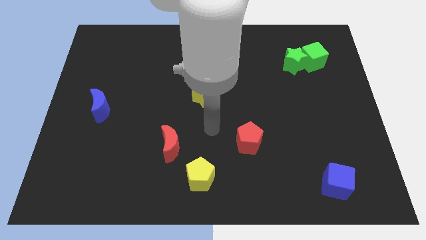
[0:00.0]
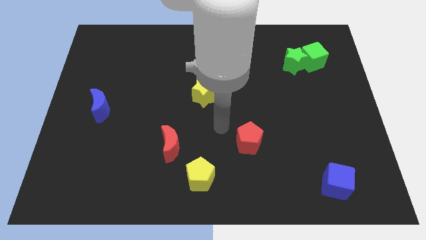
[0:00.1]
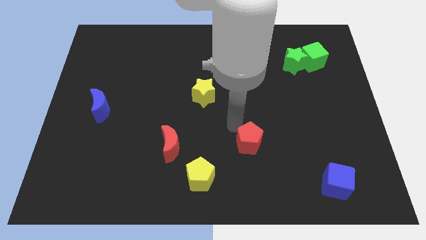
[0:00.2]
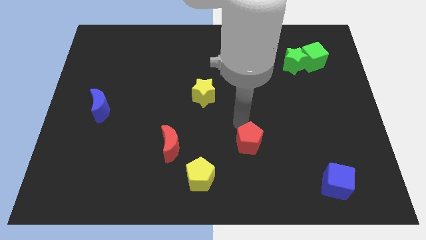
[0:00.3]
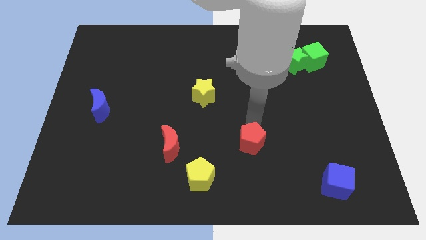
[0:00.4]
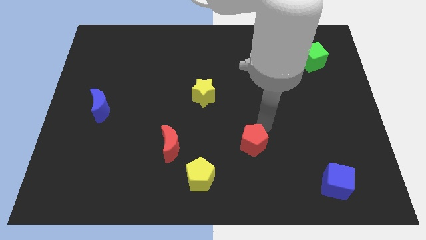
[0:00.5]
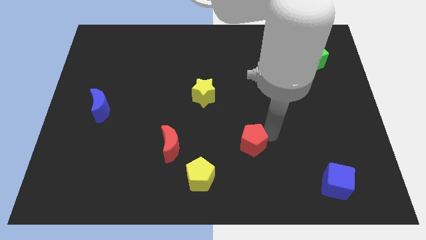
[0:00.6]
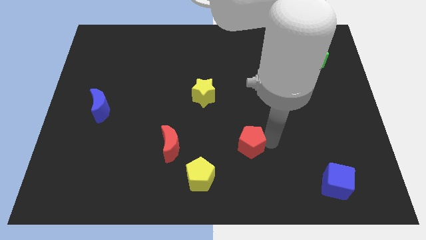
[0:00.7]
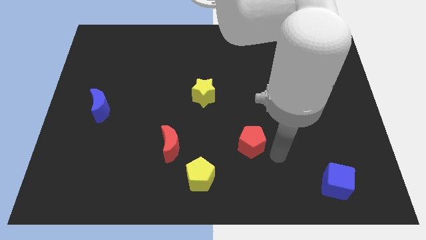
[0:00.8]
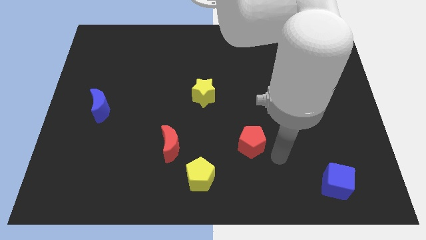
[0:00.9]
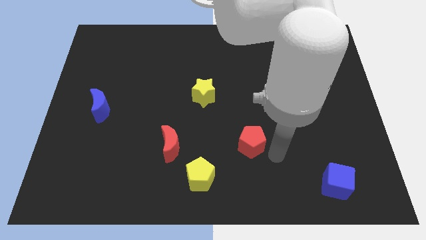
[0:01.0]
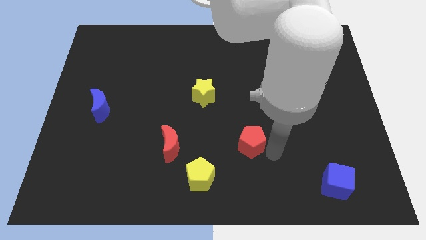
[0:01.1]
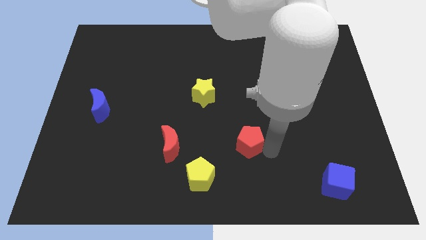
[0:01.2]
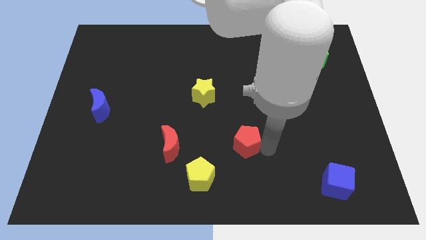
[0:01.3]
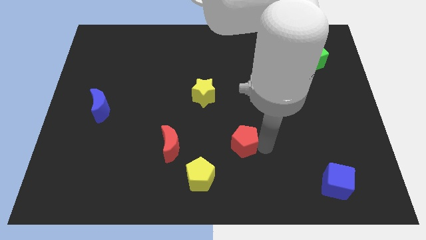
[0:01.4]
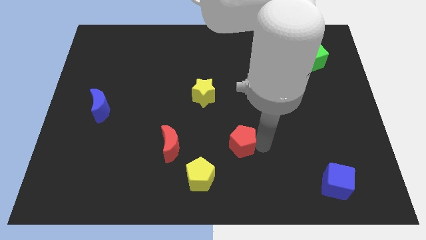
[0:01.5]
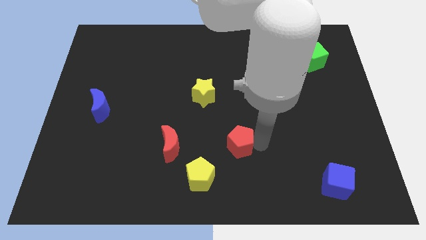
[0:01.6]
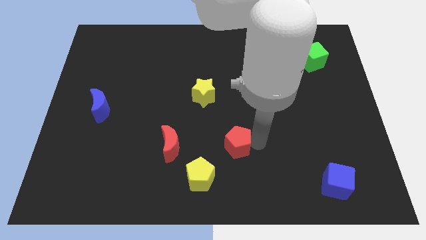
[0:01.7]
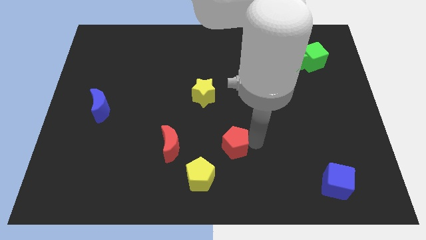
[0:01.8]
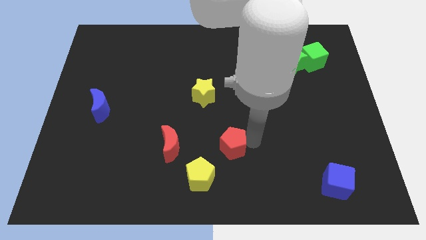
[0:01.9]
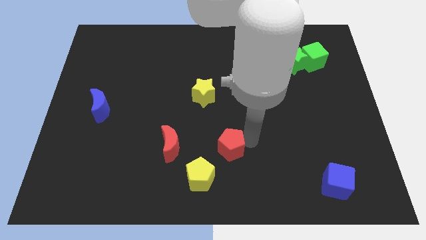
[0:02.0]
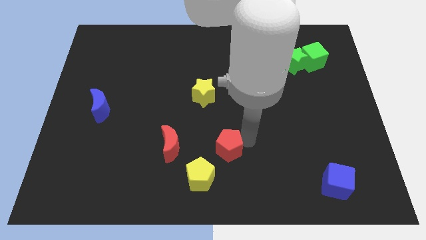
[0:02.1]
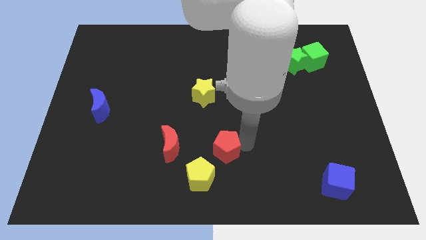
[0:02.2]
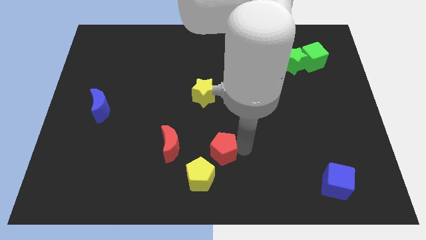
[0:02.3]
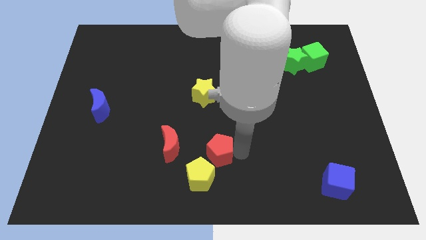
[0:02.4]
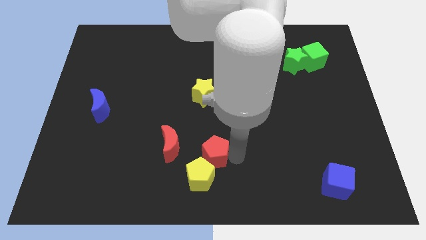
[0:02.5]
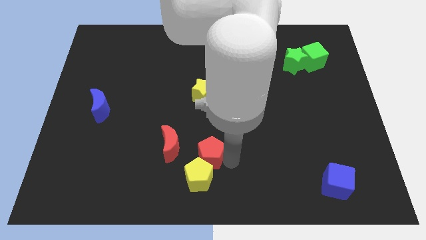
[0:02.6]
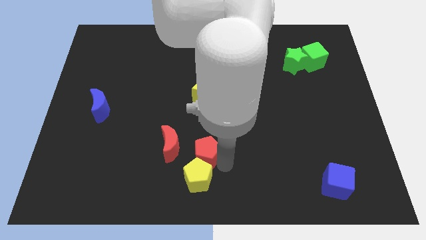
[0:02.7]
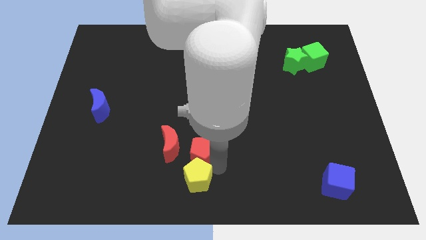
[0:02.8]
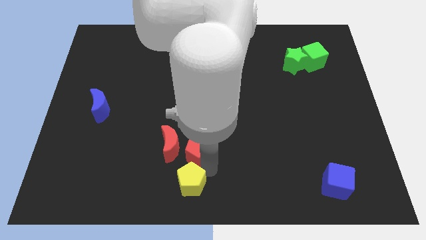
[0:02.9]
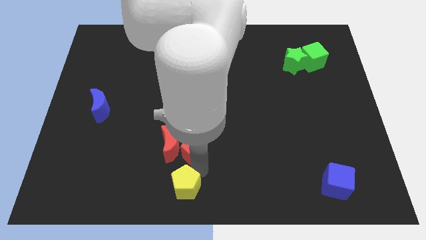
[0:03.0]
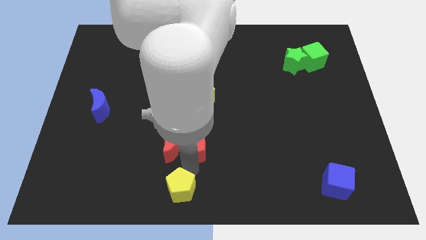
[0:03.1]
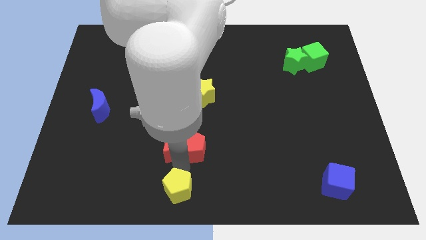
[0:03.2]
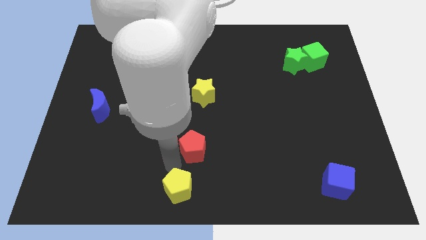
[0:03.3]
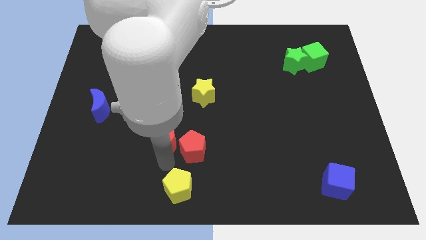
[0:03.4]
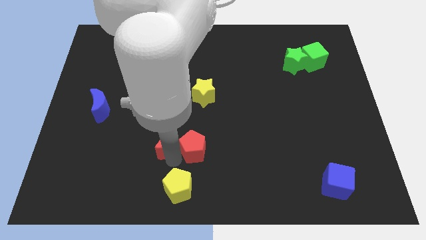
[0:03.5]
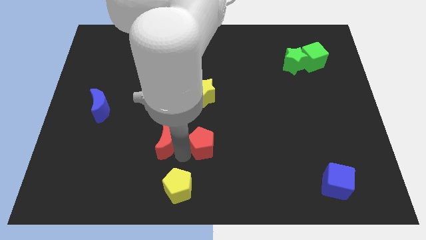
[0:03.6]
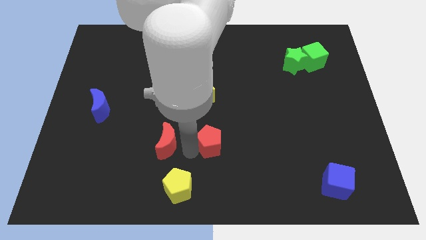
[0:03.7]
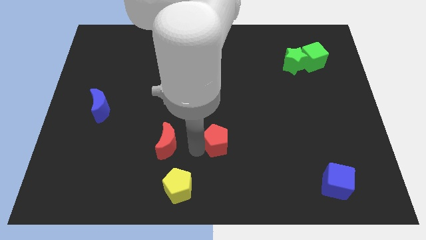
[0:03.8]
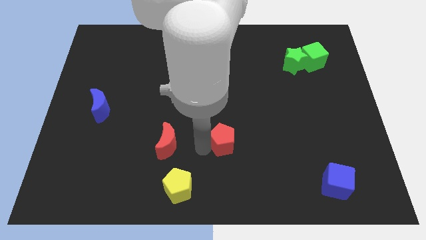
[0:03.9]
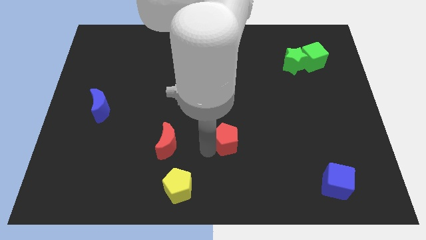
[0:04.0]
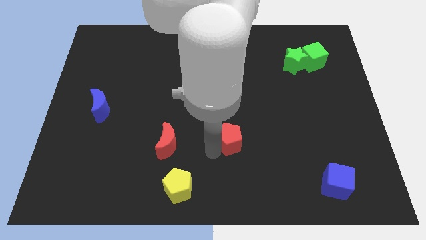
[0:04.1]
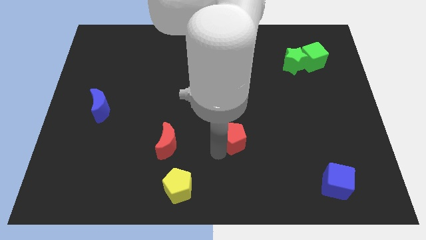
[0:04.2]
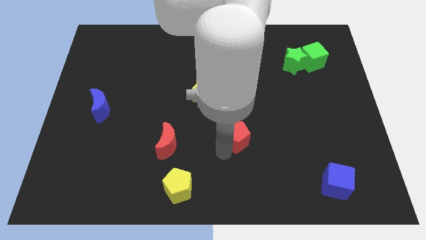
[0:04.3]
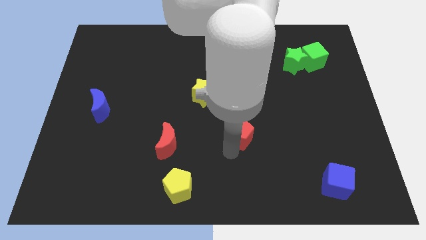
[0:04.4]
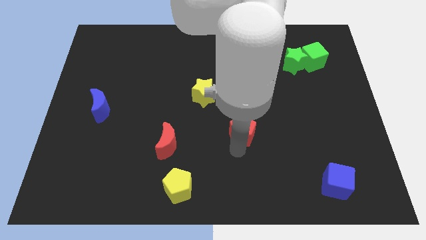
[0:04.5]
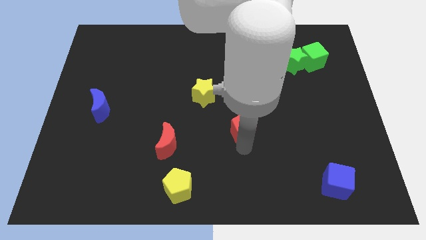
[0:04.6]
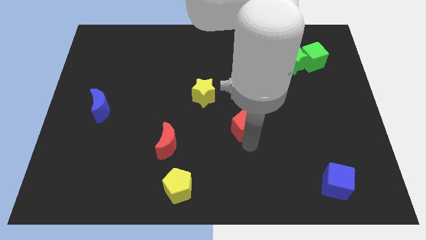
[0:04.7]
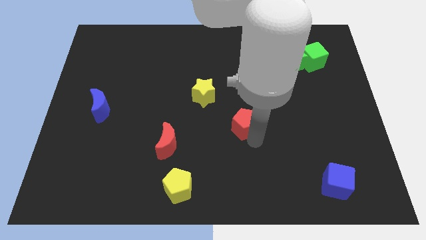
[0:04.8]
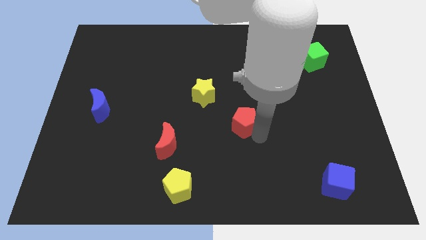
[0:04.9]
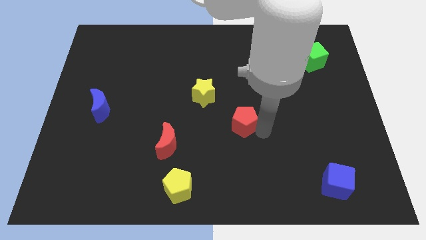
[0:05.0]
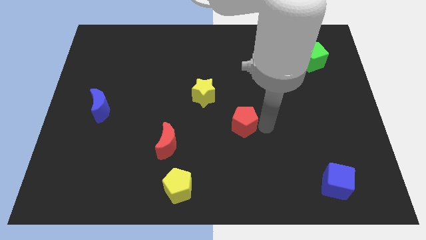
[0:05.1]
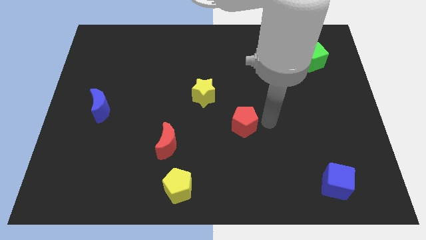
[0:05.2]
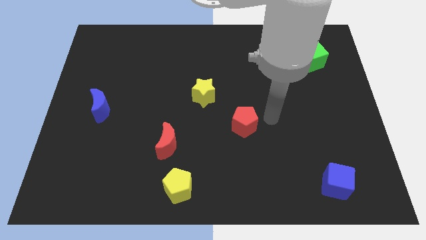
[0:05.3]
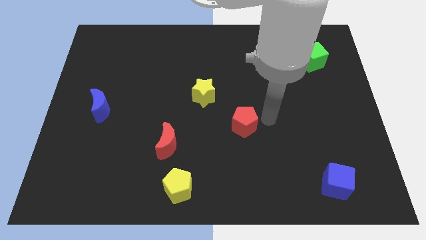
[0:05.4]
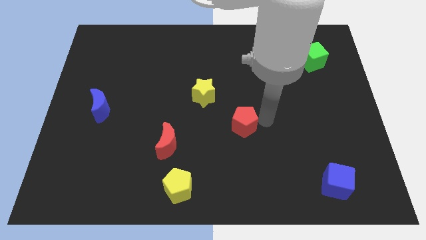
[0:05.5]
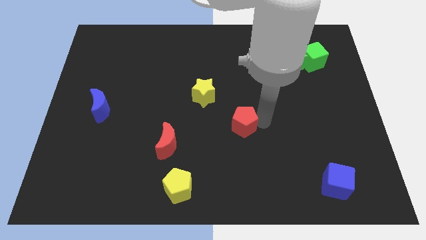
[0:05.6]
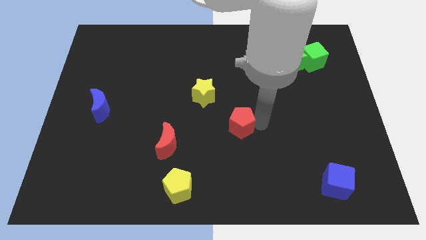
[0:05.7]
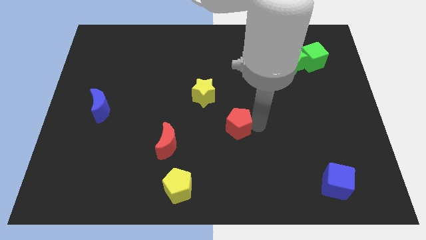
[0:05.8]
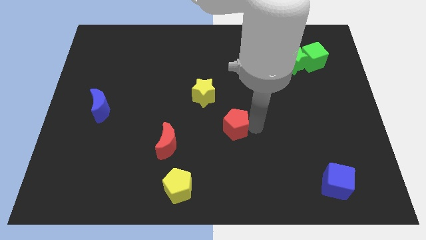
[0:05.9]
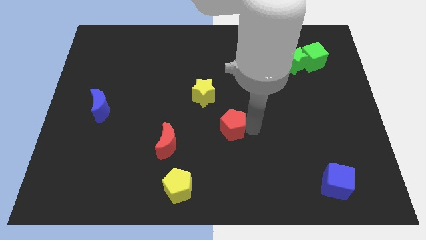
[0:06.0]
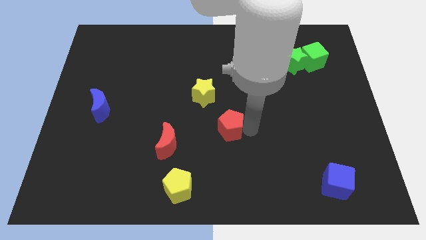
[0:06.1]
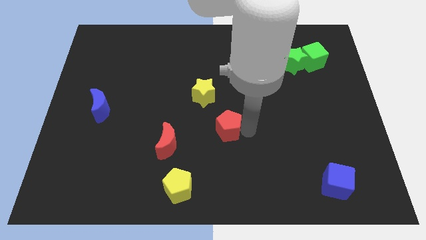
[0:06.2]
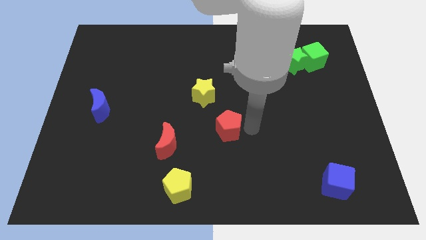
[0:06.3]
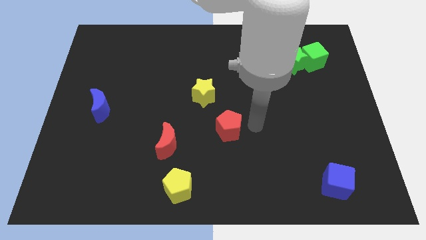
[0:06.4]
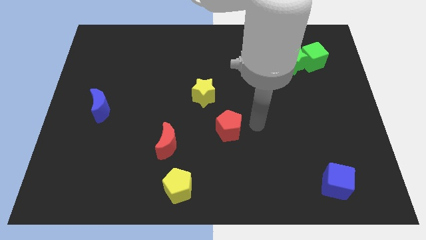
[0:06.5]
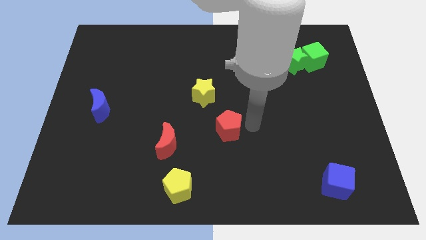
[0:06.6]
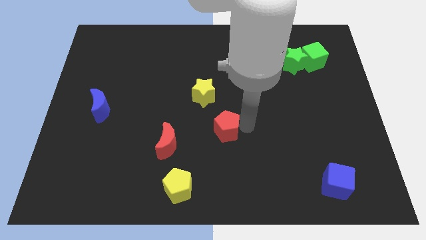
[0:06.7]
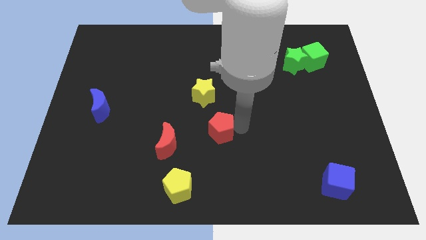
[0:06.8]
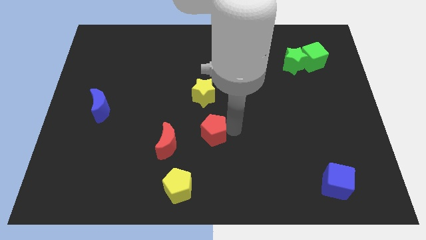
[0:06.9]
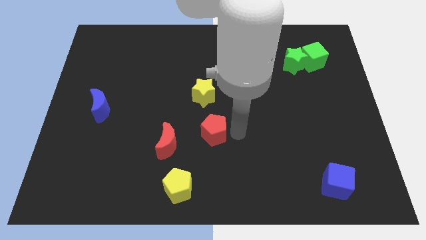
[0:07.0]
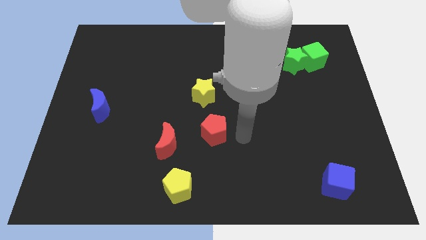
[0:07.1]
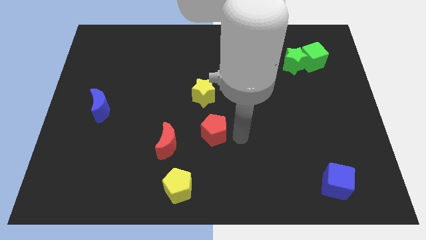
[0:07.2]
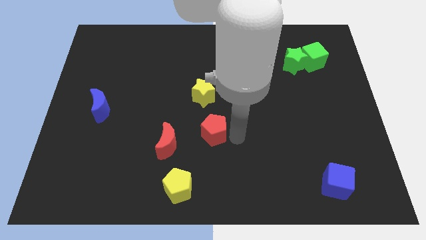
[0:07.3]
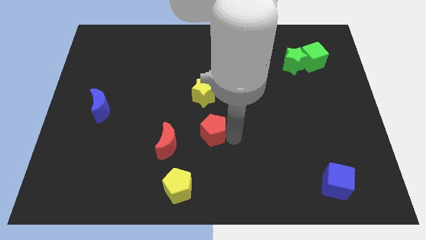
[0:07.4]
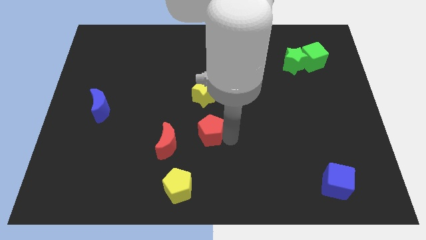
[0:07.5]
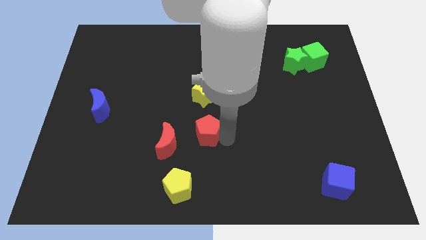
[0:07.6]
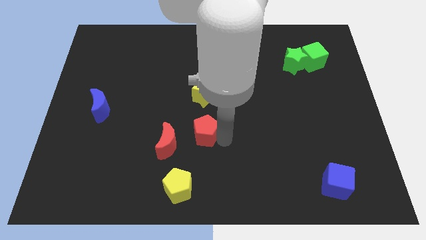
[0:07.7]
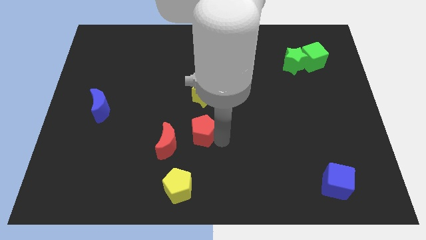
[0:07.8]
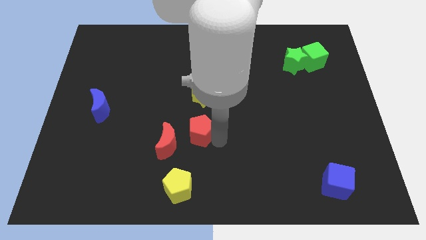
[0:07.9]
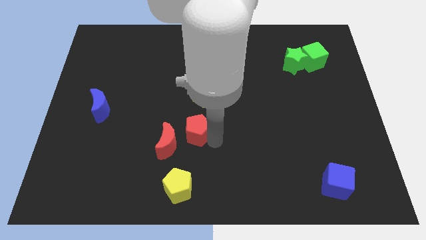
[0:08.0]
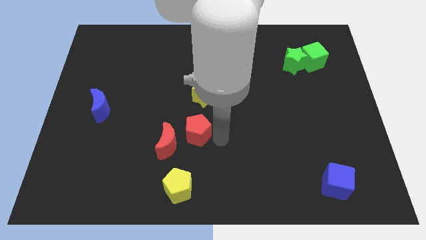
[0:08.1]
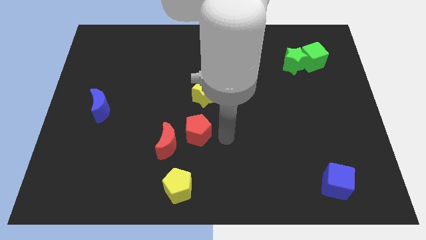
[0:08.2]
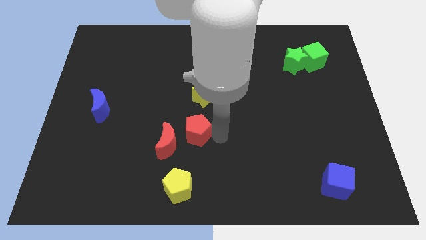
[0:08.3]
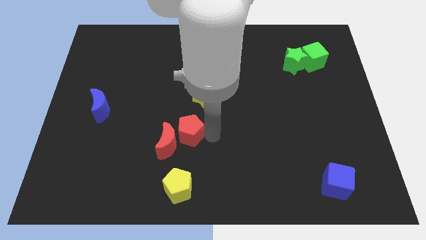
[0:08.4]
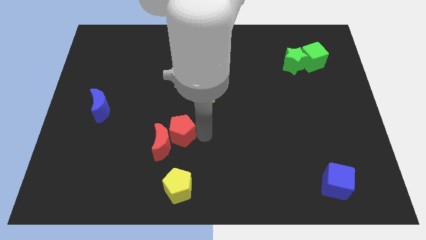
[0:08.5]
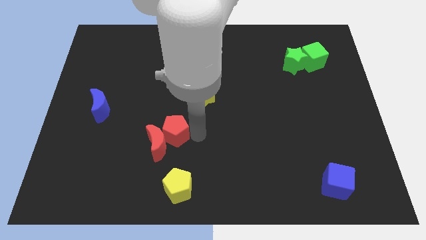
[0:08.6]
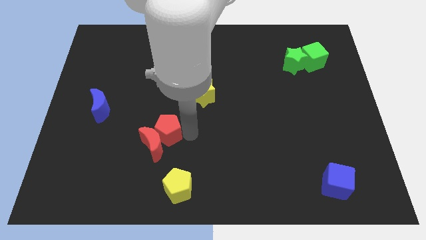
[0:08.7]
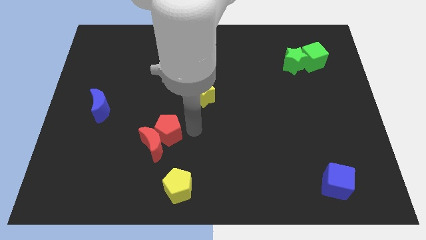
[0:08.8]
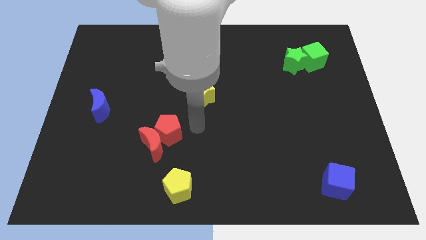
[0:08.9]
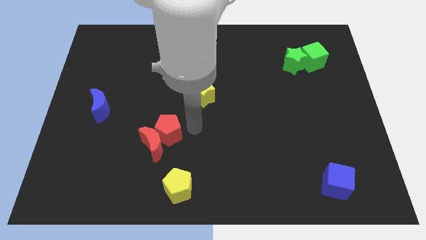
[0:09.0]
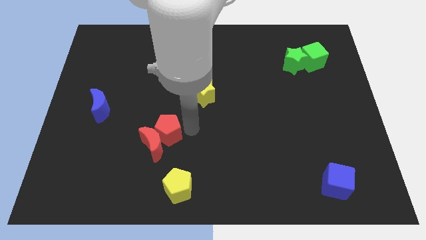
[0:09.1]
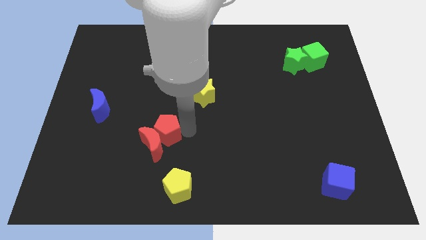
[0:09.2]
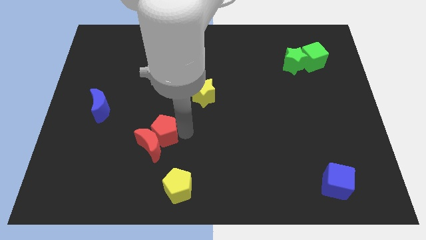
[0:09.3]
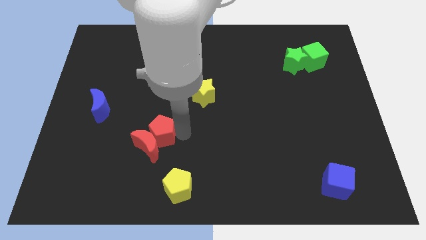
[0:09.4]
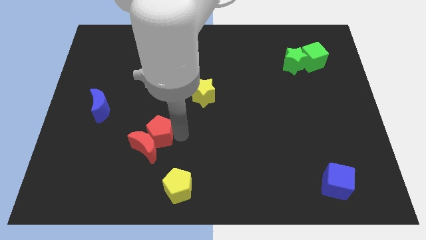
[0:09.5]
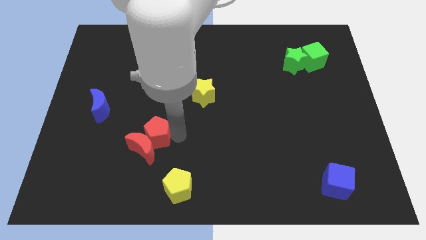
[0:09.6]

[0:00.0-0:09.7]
slide the red pentagon to the left
